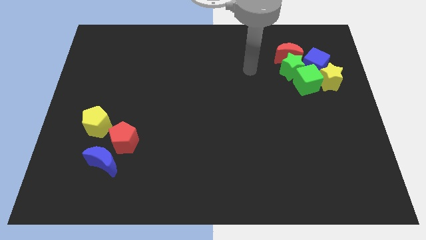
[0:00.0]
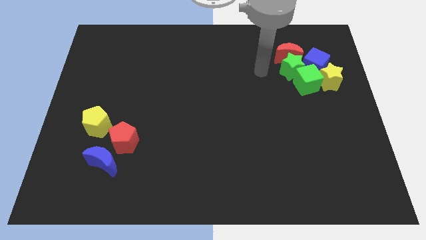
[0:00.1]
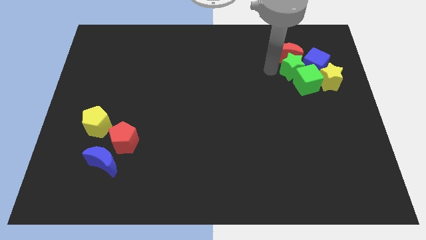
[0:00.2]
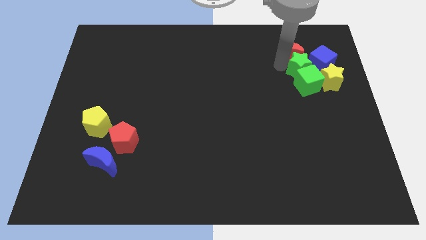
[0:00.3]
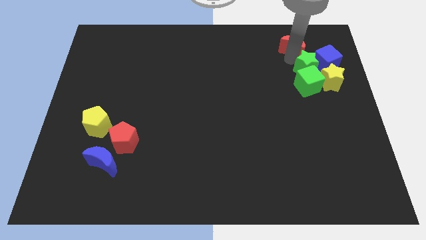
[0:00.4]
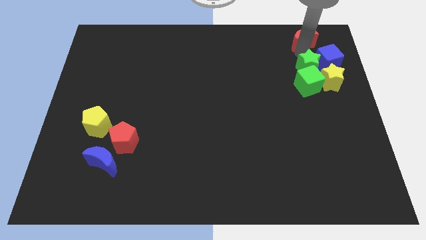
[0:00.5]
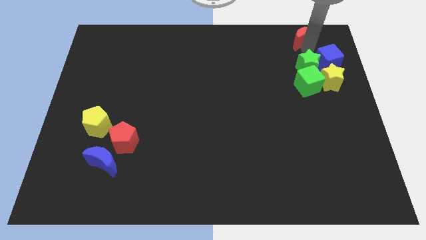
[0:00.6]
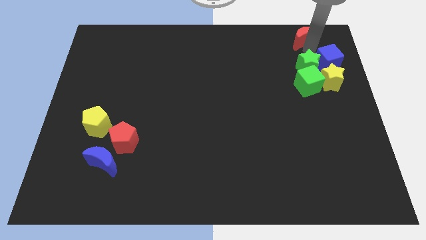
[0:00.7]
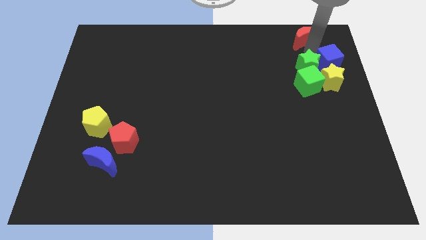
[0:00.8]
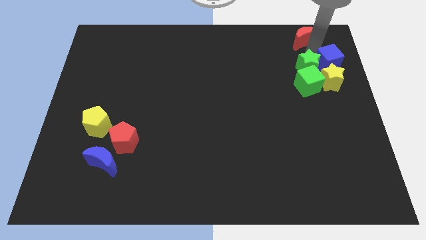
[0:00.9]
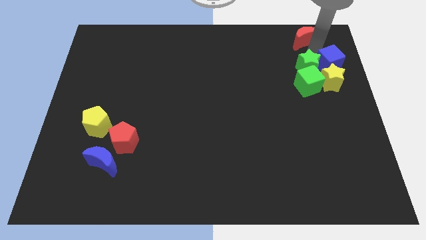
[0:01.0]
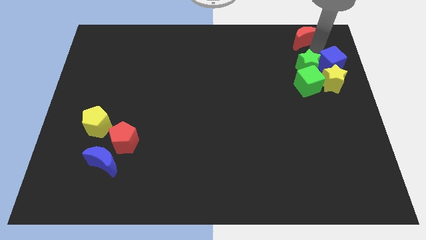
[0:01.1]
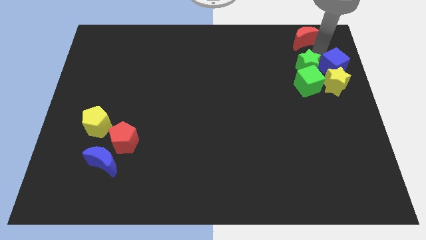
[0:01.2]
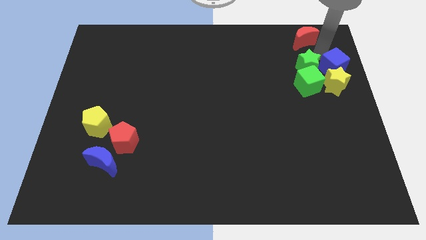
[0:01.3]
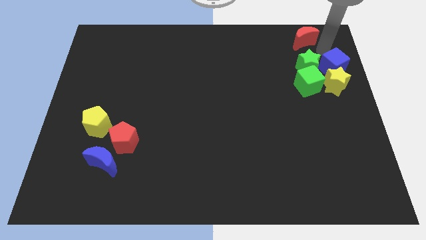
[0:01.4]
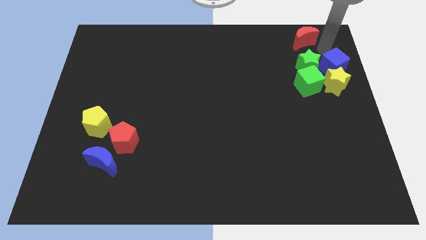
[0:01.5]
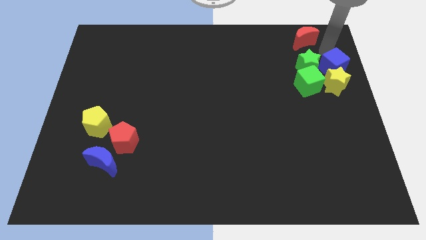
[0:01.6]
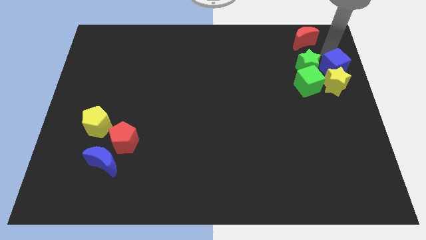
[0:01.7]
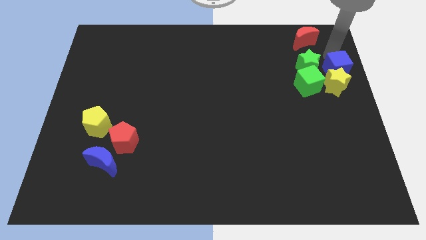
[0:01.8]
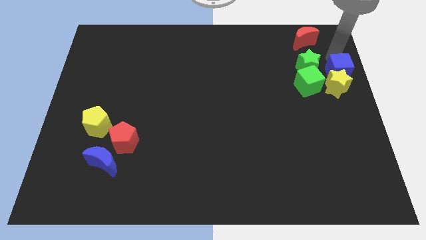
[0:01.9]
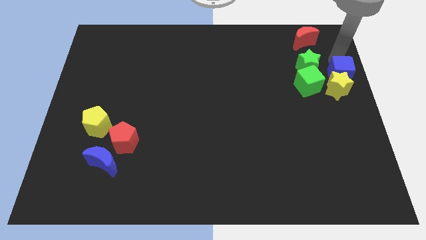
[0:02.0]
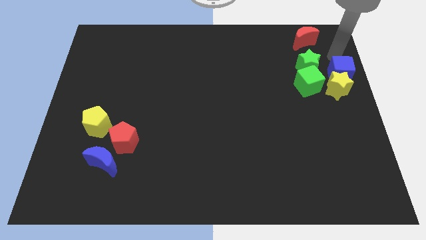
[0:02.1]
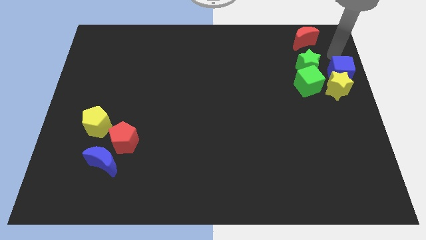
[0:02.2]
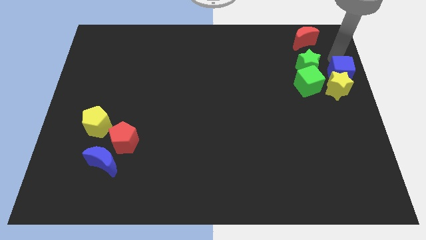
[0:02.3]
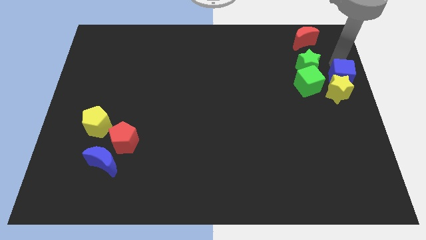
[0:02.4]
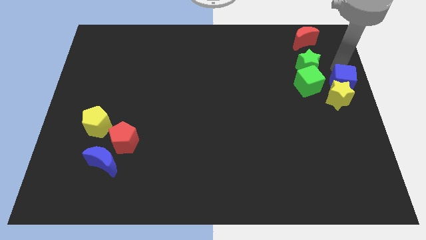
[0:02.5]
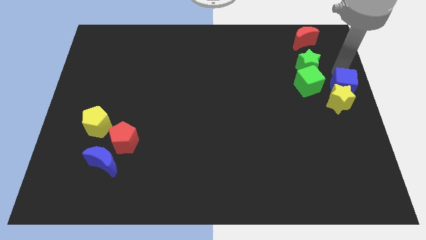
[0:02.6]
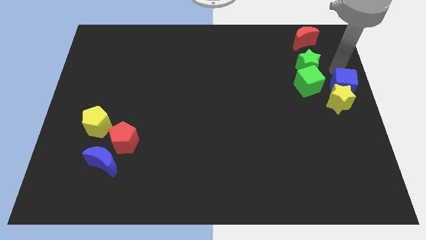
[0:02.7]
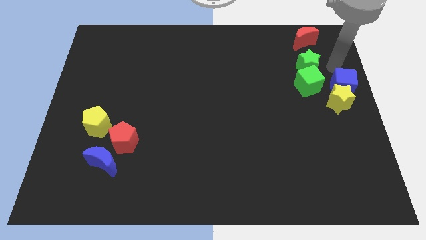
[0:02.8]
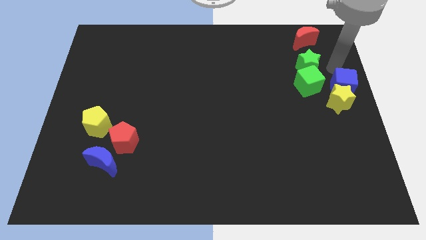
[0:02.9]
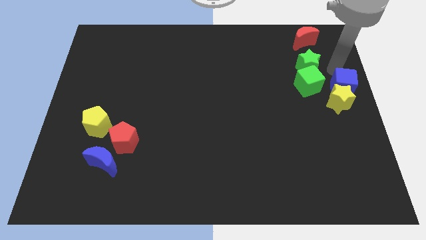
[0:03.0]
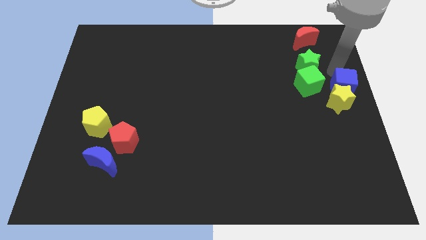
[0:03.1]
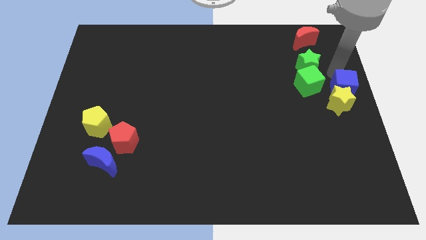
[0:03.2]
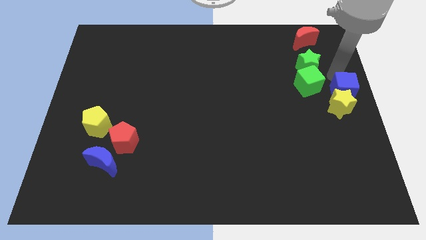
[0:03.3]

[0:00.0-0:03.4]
move the blue cube a little down

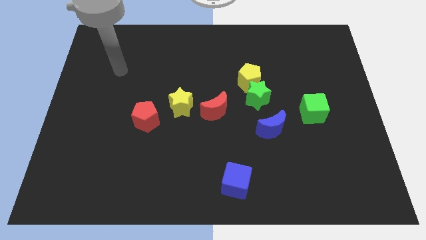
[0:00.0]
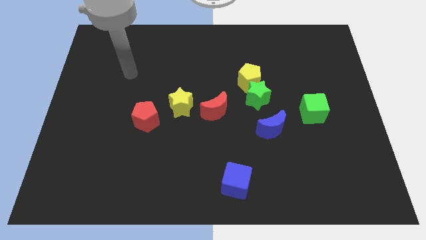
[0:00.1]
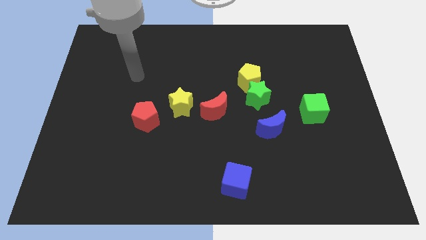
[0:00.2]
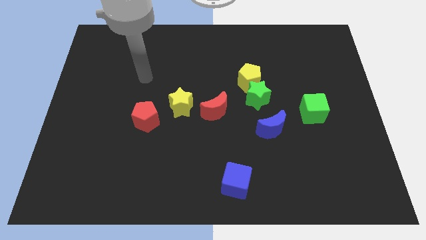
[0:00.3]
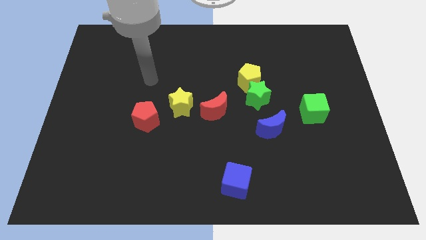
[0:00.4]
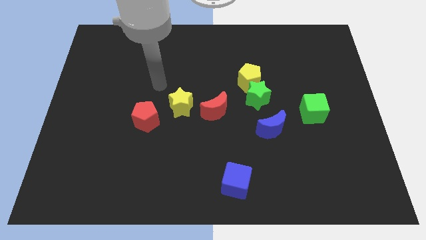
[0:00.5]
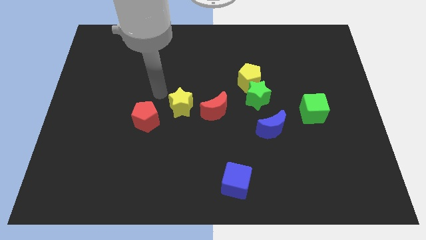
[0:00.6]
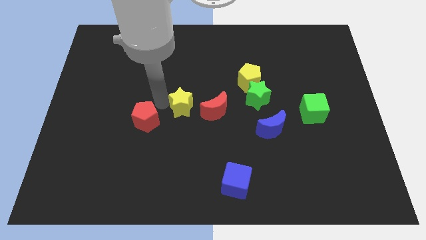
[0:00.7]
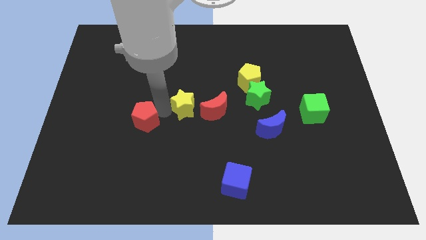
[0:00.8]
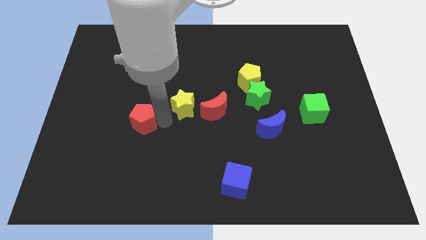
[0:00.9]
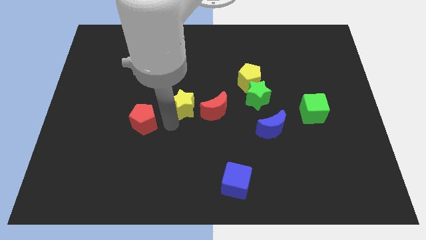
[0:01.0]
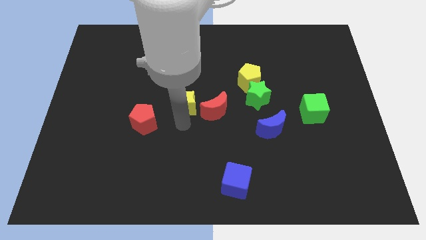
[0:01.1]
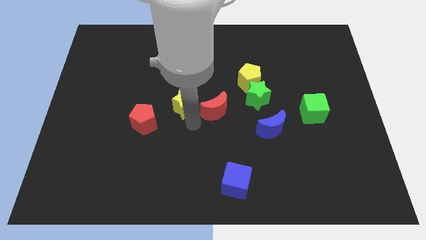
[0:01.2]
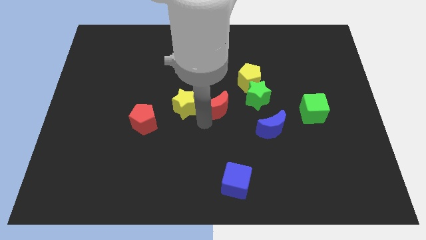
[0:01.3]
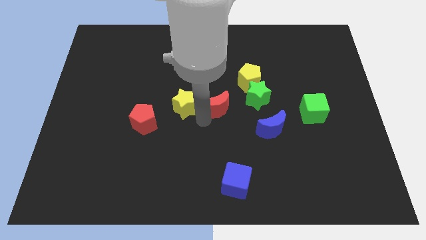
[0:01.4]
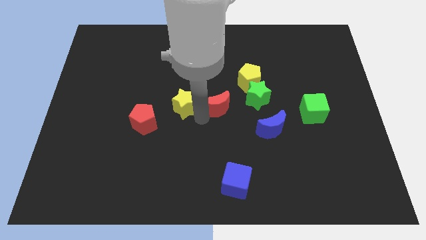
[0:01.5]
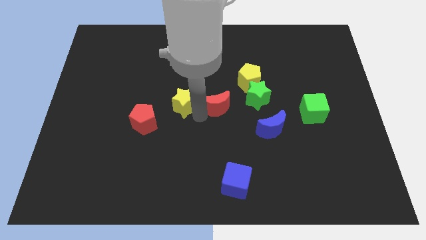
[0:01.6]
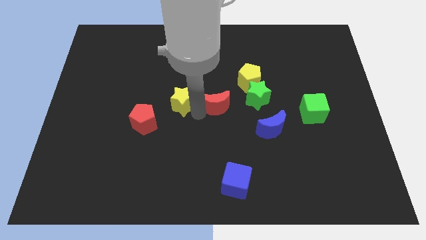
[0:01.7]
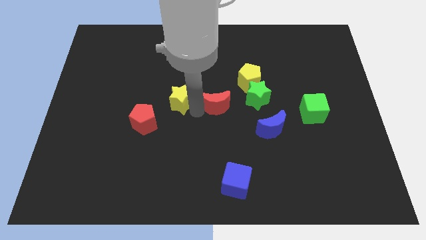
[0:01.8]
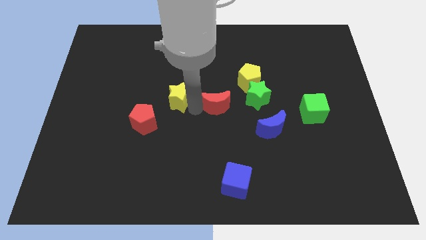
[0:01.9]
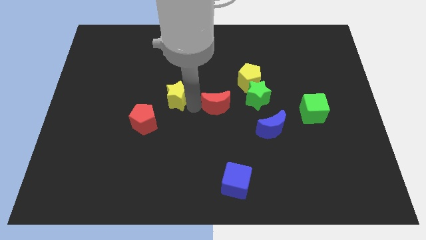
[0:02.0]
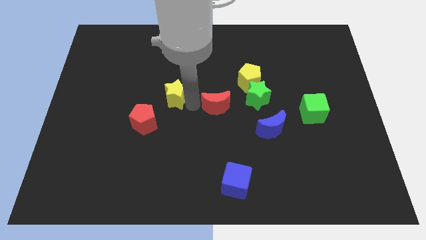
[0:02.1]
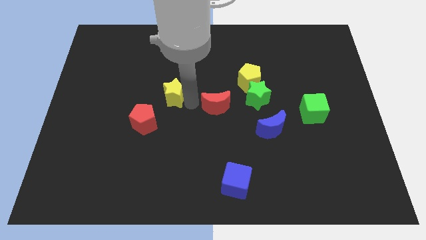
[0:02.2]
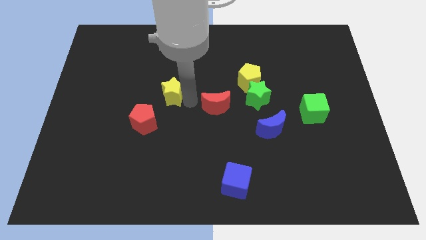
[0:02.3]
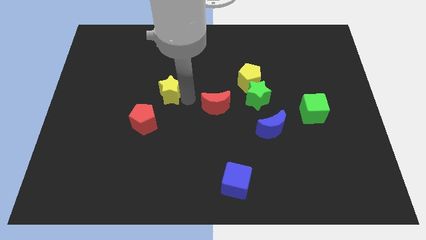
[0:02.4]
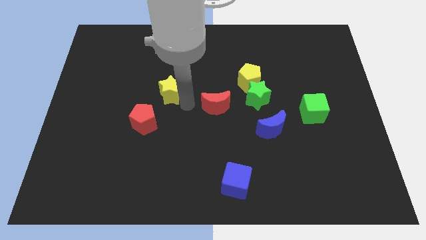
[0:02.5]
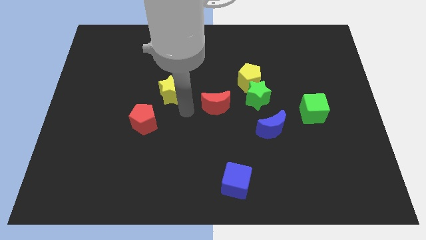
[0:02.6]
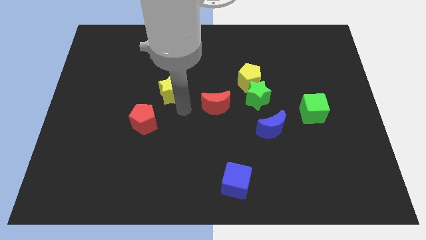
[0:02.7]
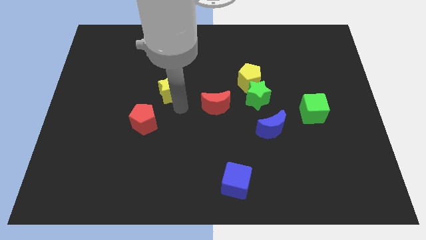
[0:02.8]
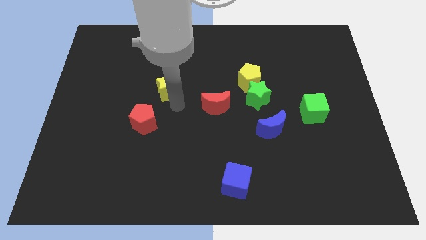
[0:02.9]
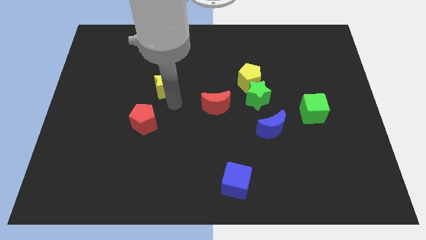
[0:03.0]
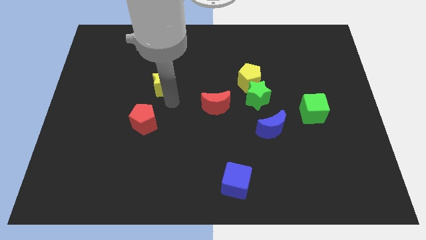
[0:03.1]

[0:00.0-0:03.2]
move the yellow star diagonally upwards and left a little bit

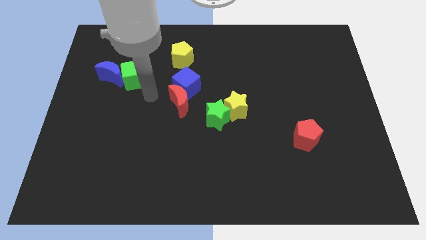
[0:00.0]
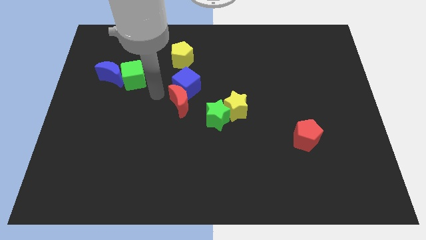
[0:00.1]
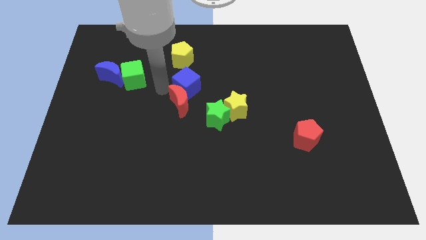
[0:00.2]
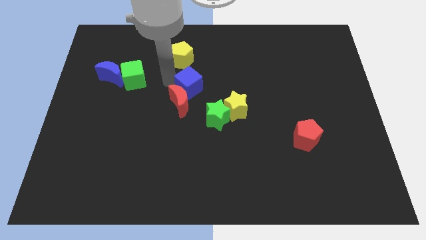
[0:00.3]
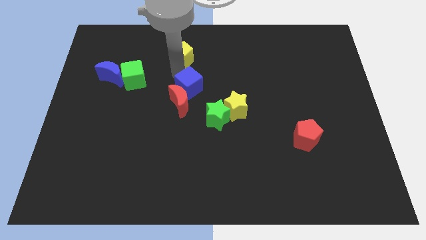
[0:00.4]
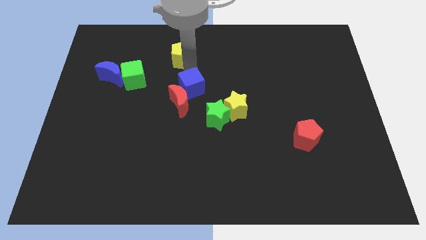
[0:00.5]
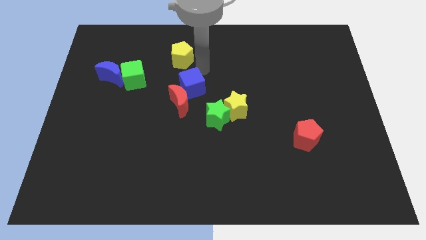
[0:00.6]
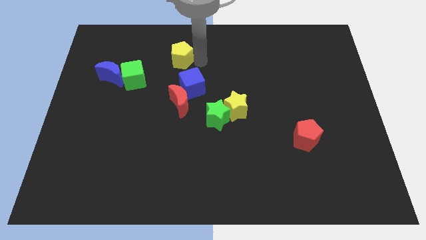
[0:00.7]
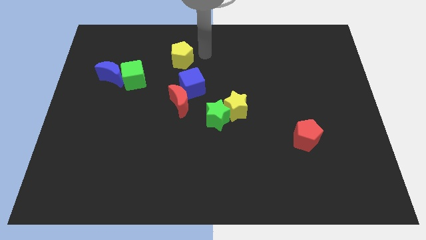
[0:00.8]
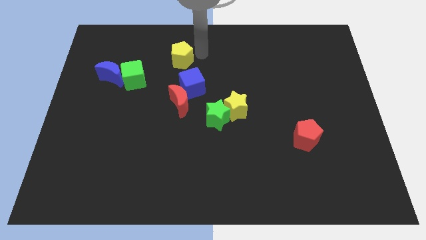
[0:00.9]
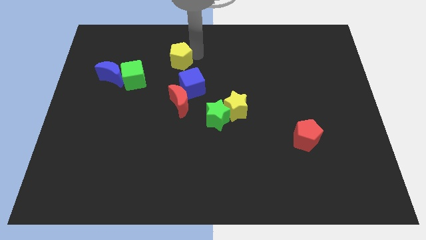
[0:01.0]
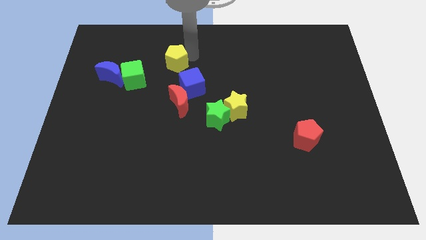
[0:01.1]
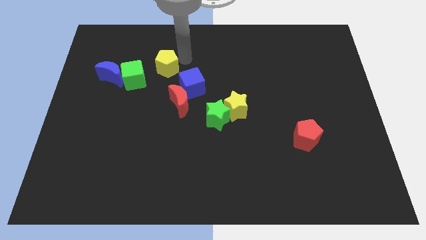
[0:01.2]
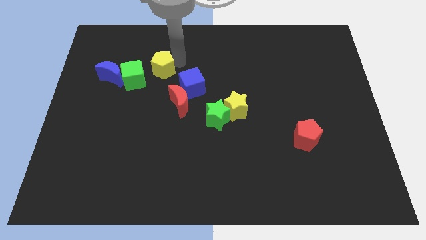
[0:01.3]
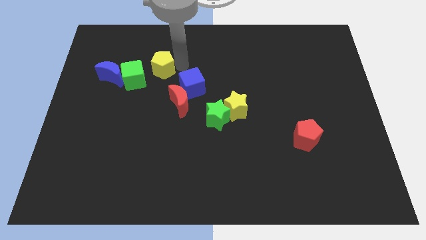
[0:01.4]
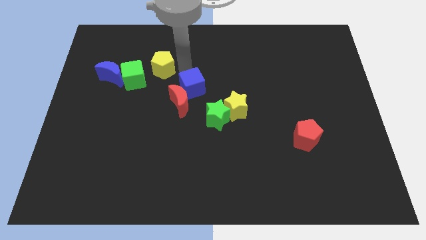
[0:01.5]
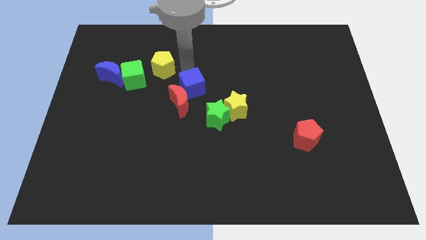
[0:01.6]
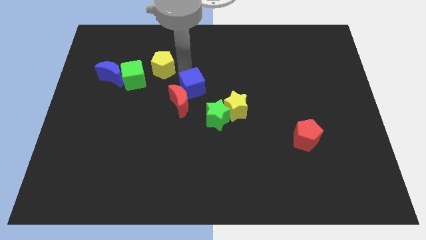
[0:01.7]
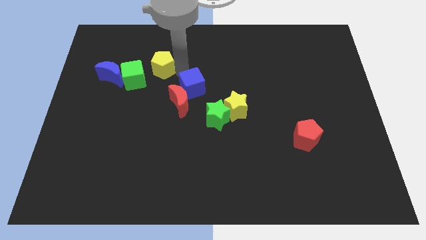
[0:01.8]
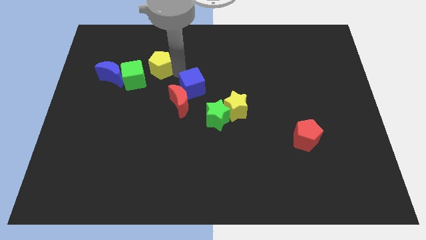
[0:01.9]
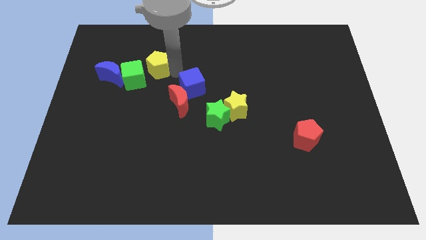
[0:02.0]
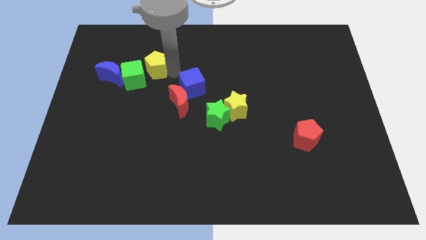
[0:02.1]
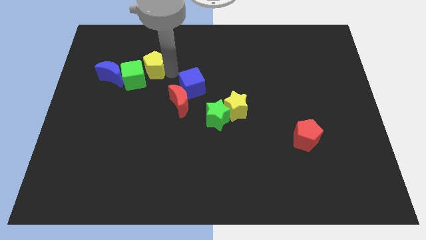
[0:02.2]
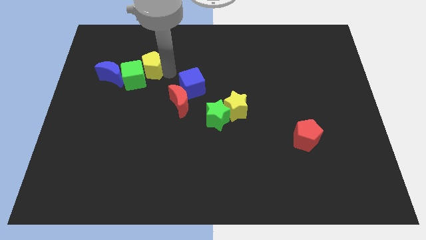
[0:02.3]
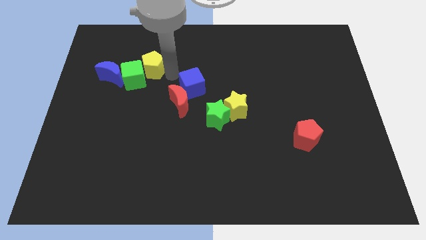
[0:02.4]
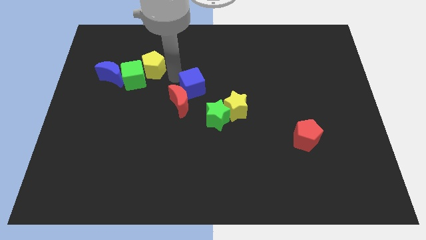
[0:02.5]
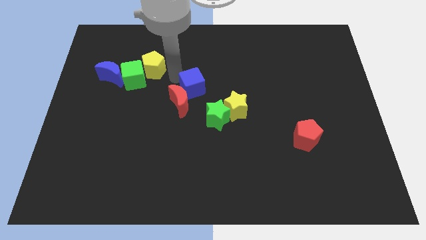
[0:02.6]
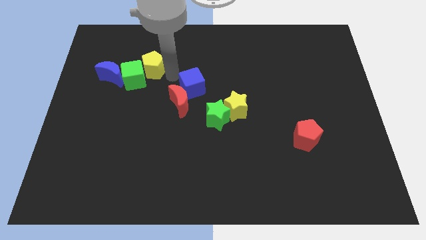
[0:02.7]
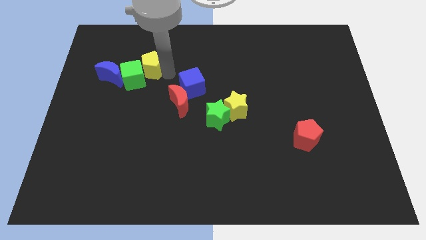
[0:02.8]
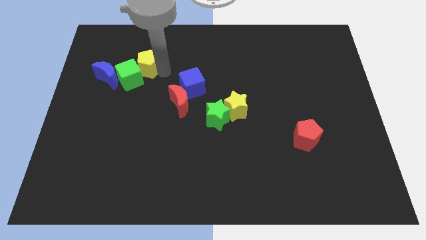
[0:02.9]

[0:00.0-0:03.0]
slightly slide the yellow pentagon to the left
